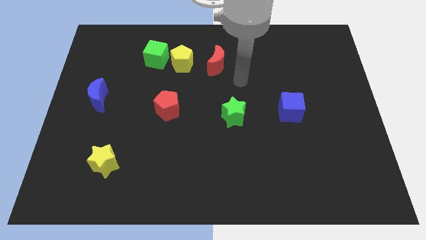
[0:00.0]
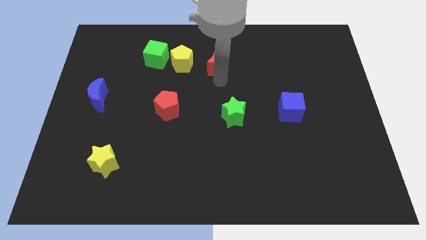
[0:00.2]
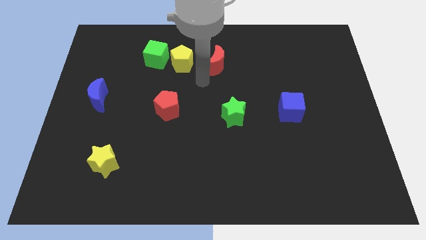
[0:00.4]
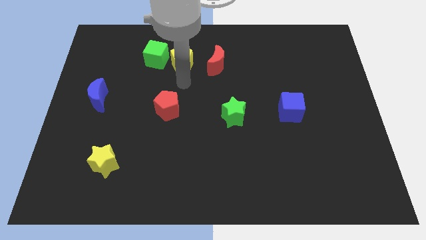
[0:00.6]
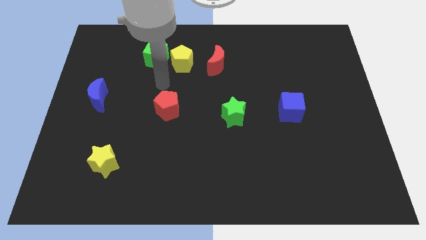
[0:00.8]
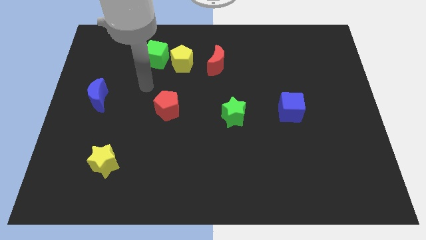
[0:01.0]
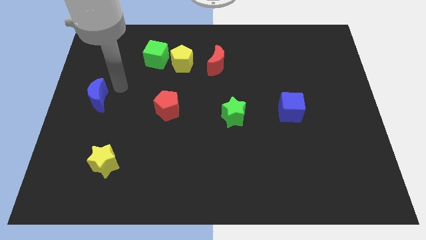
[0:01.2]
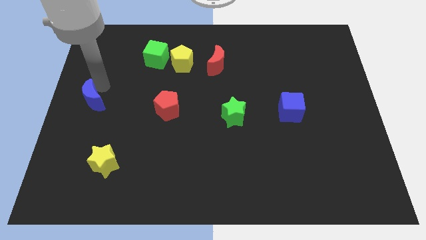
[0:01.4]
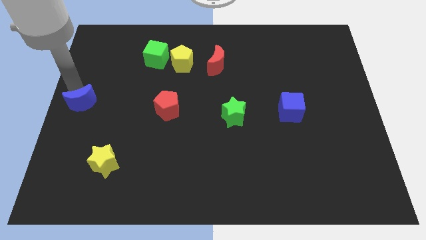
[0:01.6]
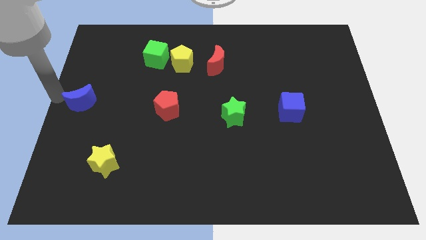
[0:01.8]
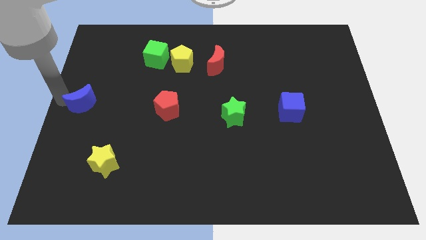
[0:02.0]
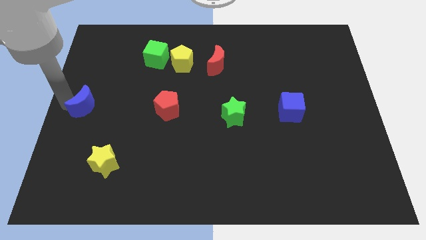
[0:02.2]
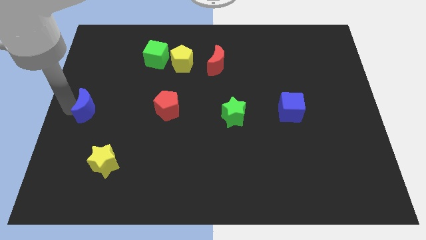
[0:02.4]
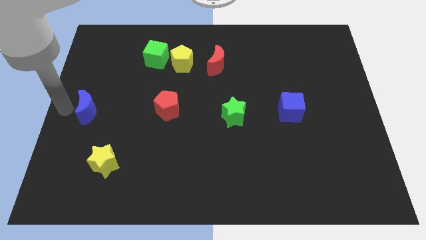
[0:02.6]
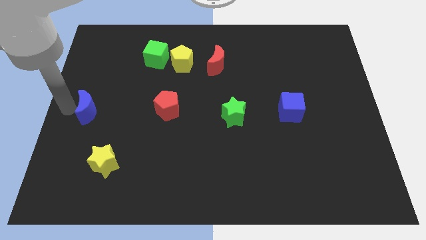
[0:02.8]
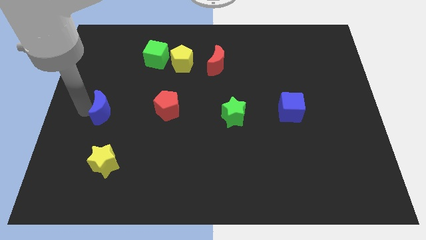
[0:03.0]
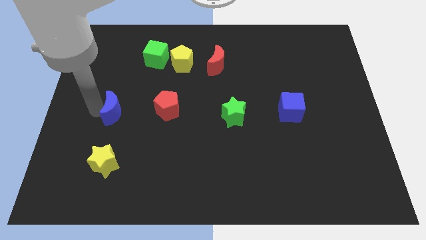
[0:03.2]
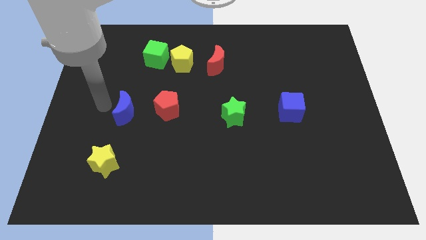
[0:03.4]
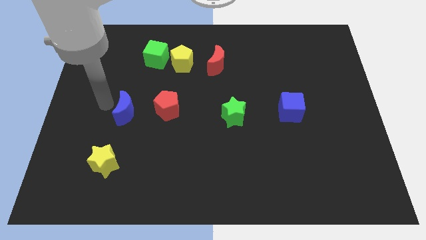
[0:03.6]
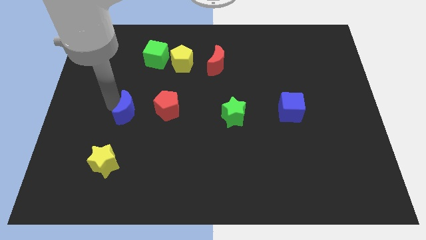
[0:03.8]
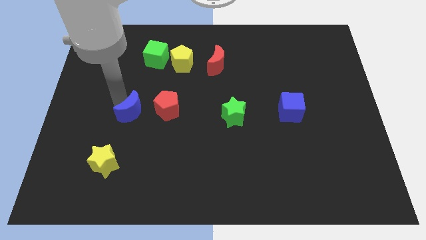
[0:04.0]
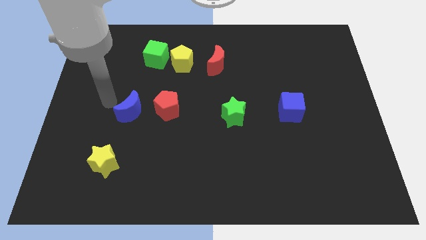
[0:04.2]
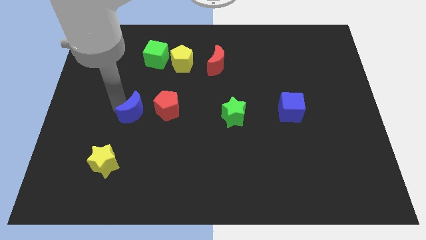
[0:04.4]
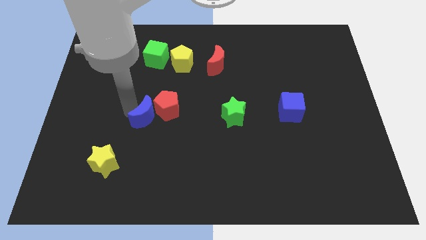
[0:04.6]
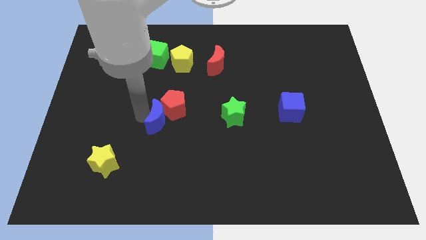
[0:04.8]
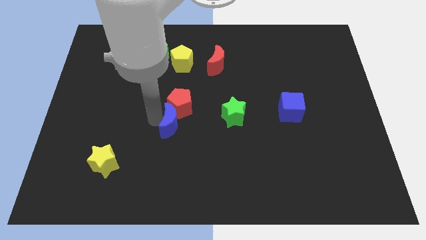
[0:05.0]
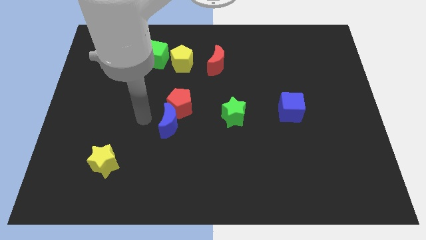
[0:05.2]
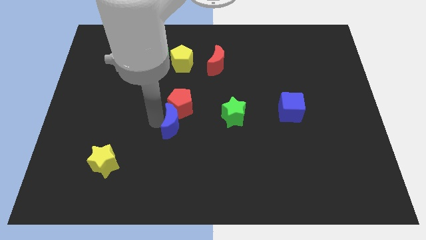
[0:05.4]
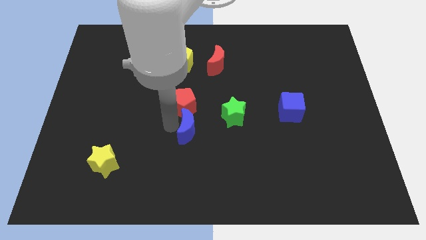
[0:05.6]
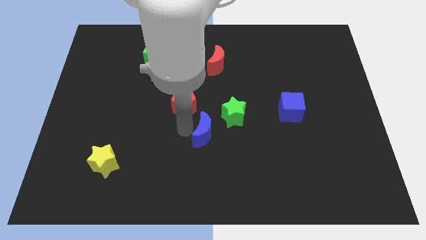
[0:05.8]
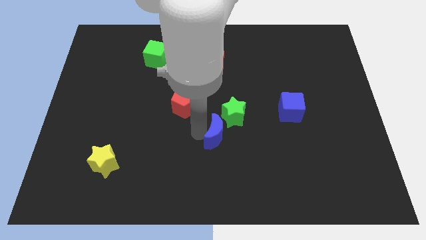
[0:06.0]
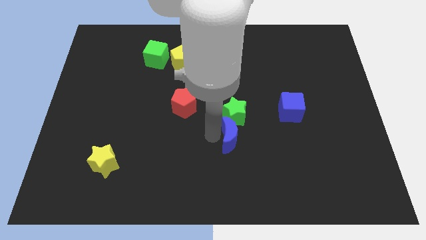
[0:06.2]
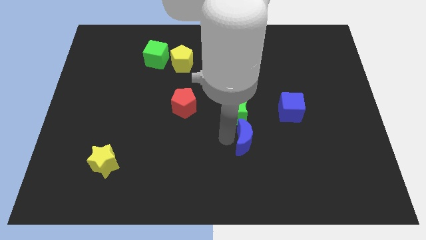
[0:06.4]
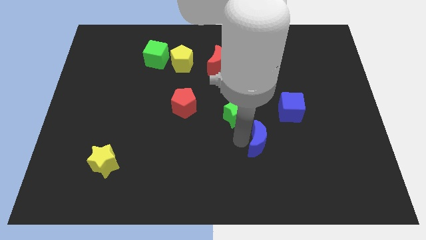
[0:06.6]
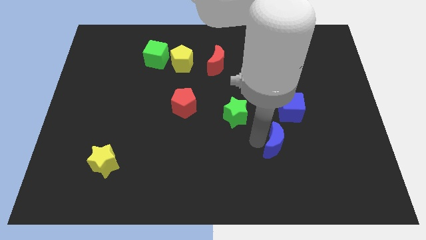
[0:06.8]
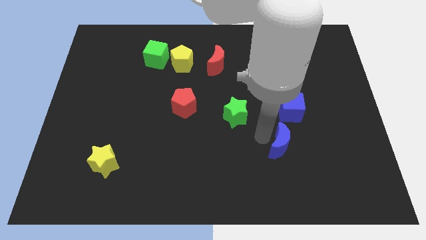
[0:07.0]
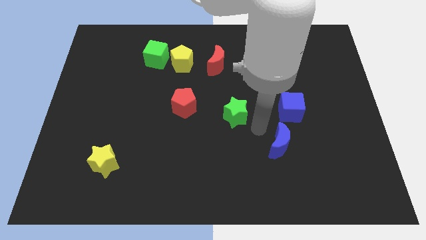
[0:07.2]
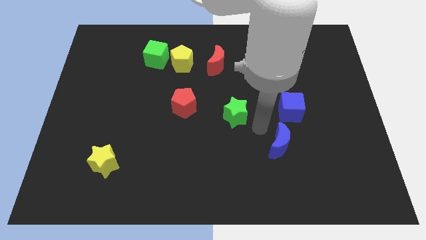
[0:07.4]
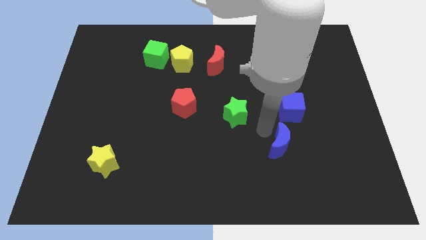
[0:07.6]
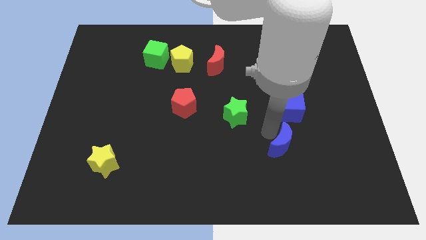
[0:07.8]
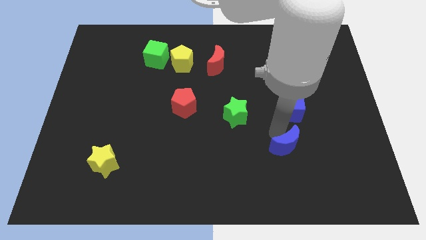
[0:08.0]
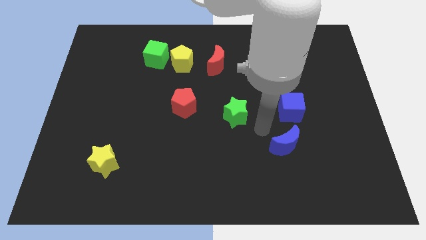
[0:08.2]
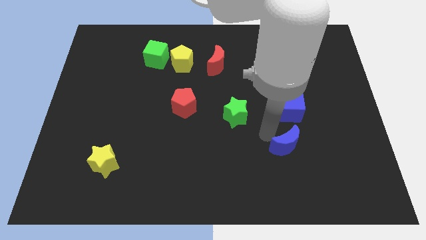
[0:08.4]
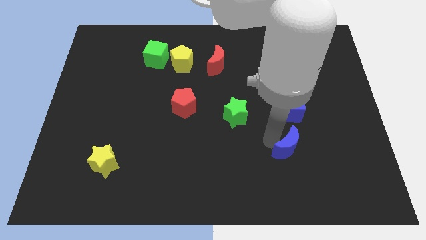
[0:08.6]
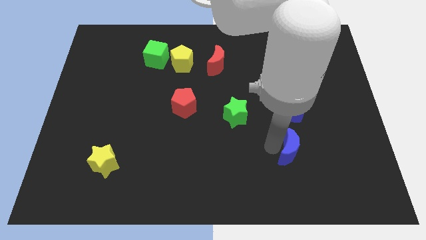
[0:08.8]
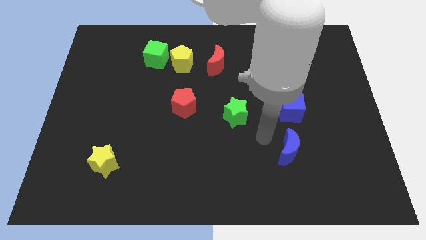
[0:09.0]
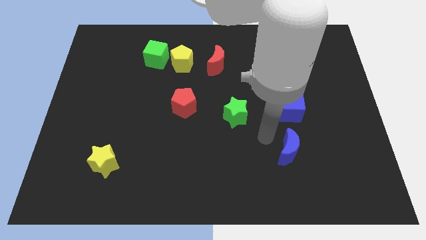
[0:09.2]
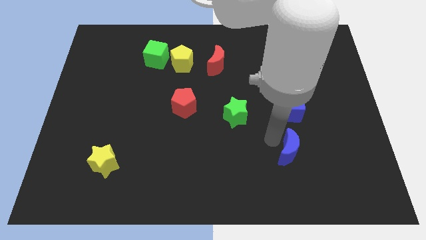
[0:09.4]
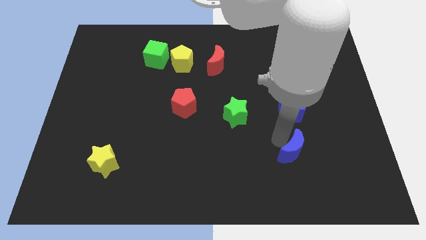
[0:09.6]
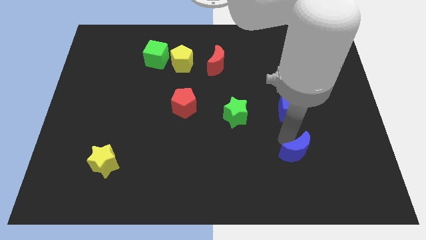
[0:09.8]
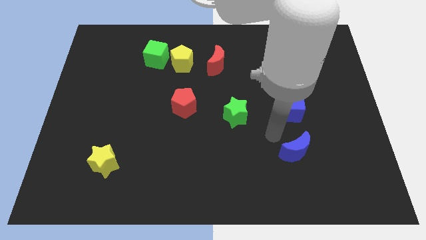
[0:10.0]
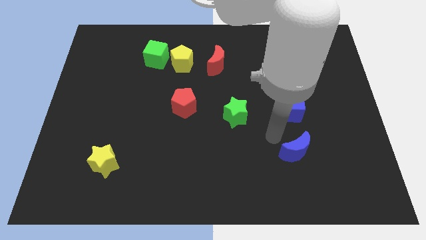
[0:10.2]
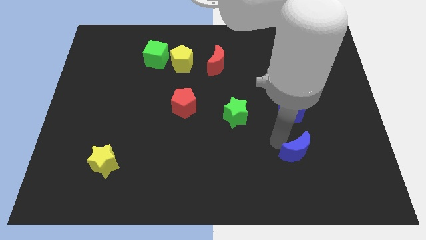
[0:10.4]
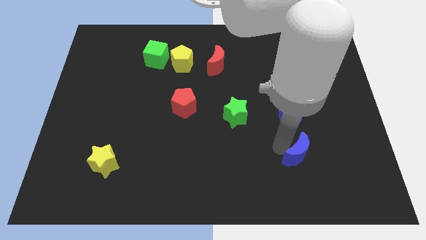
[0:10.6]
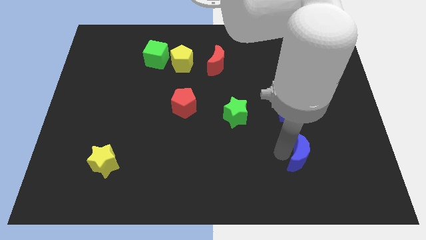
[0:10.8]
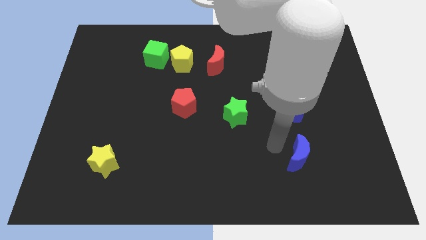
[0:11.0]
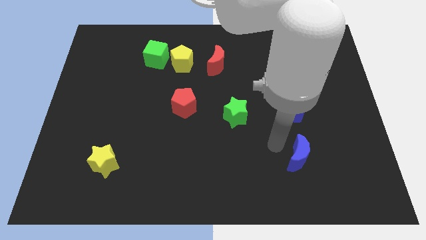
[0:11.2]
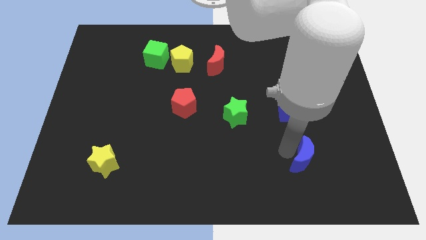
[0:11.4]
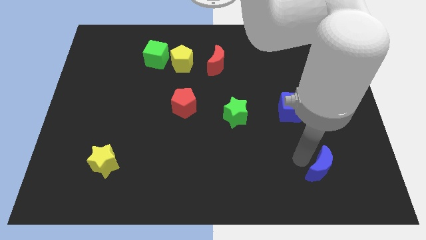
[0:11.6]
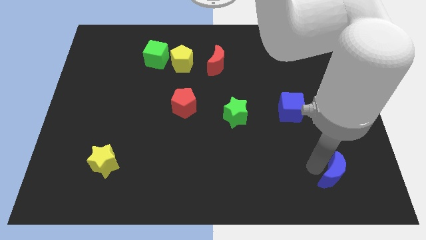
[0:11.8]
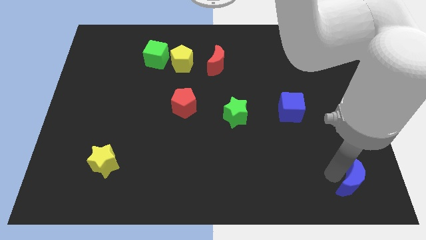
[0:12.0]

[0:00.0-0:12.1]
move the blue moon to the bottom right of the board

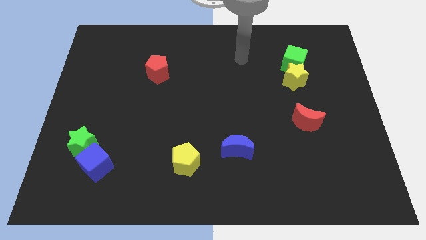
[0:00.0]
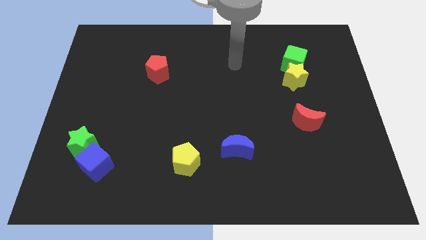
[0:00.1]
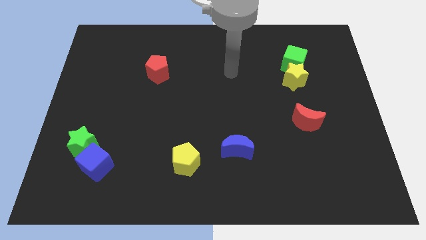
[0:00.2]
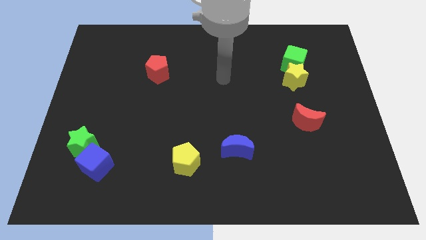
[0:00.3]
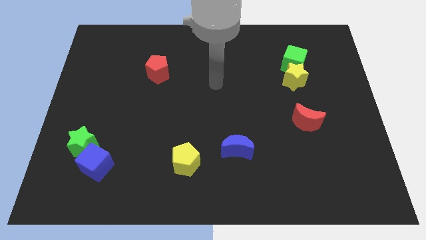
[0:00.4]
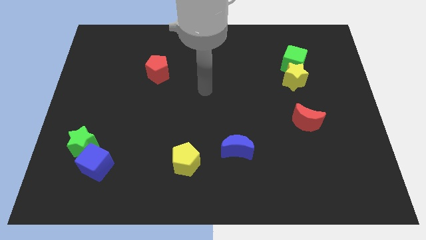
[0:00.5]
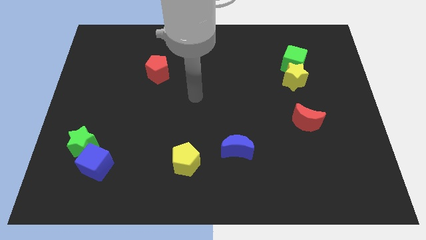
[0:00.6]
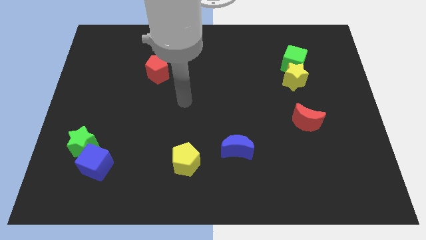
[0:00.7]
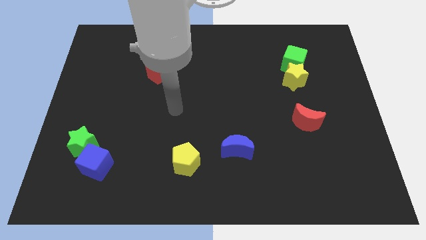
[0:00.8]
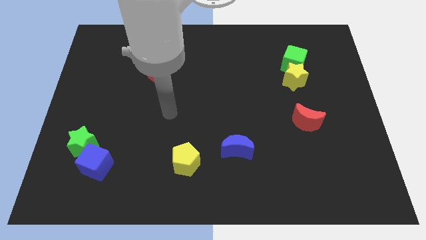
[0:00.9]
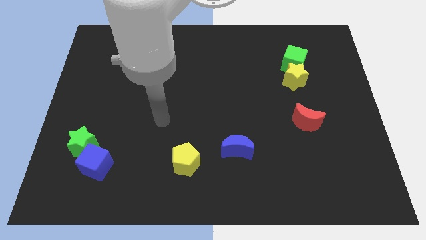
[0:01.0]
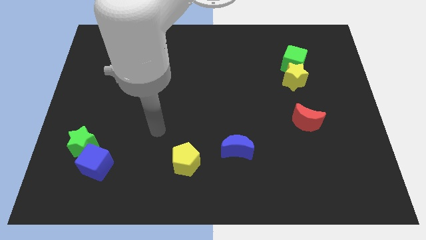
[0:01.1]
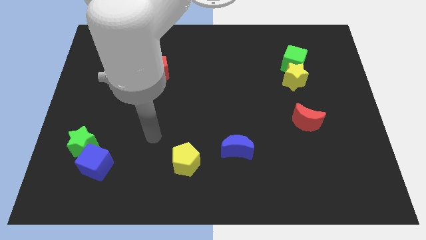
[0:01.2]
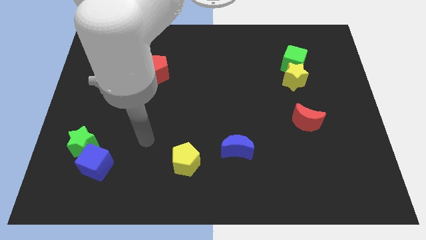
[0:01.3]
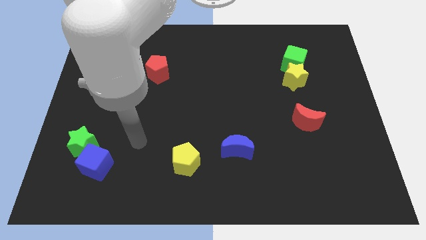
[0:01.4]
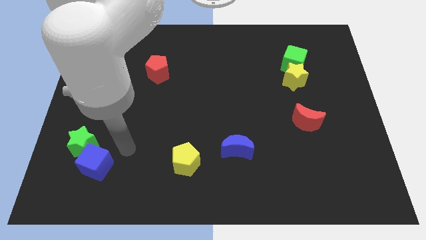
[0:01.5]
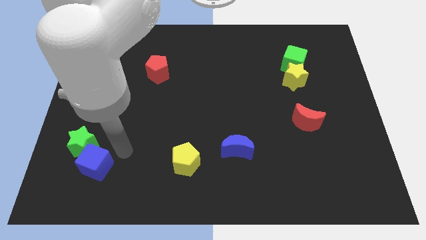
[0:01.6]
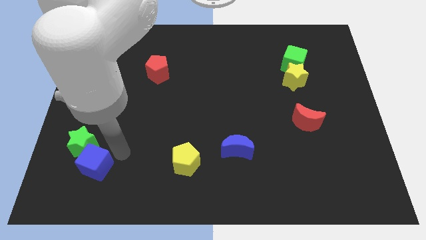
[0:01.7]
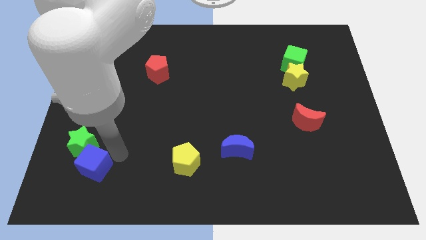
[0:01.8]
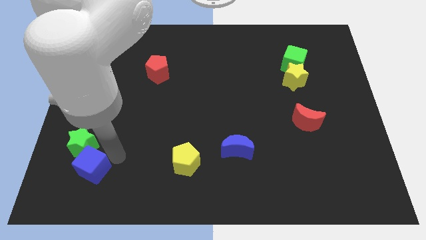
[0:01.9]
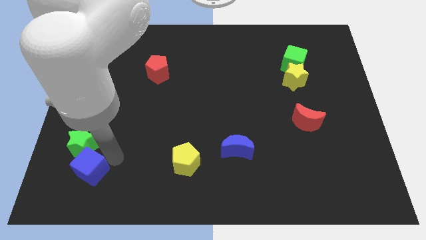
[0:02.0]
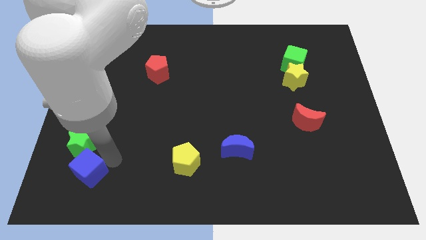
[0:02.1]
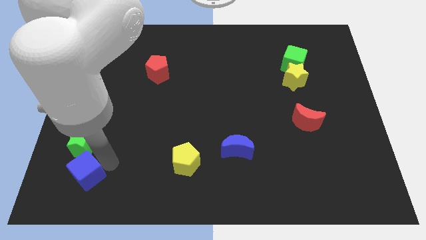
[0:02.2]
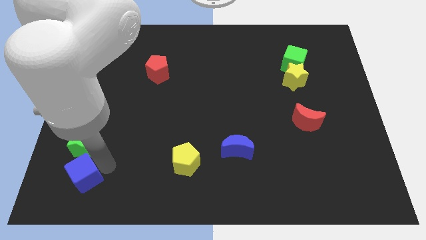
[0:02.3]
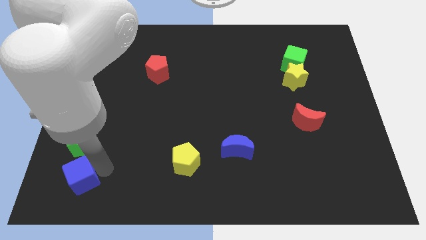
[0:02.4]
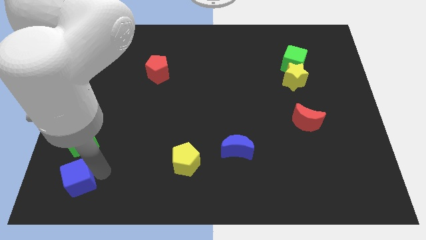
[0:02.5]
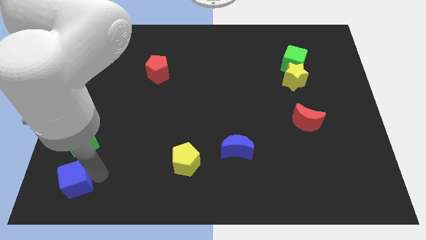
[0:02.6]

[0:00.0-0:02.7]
put the blue cube to the lower left corner
